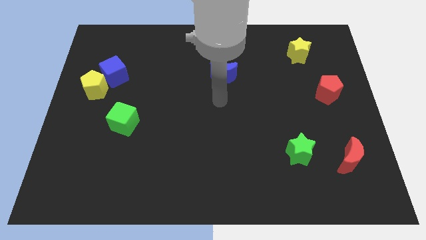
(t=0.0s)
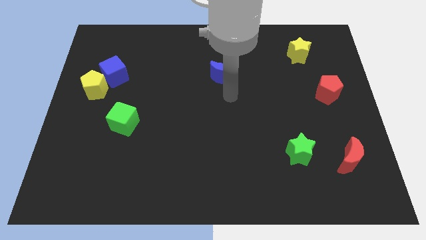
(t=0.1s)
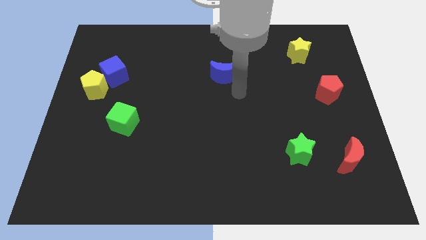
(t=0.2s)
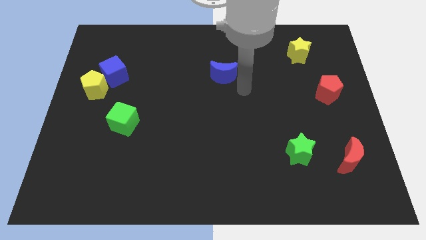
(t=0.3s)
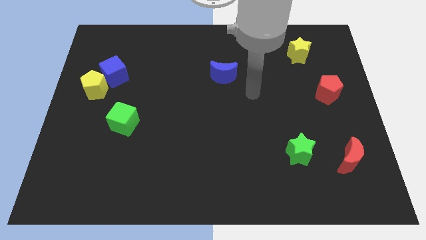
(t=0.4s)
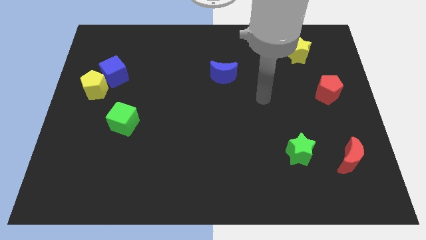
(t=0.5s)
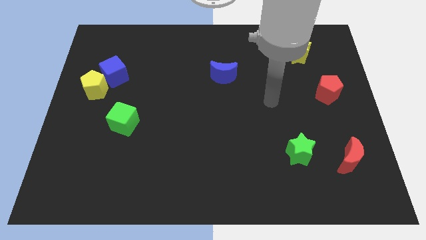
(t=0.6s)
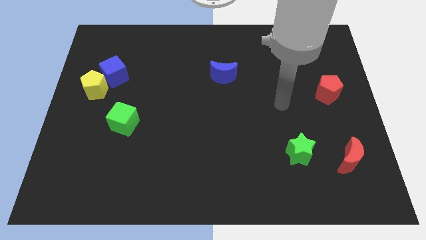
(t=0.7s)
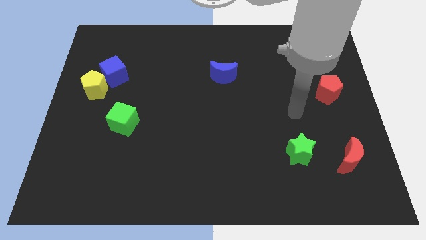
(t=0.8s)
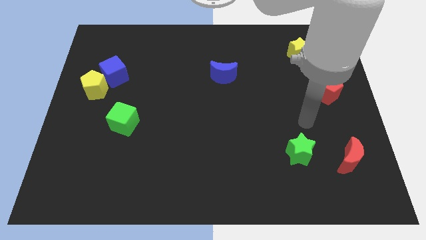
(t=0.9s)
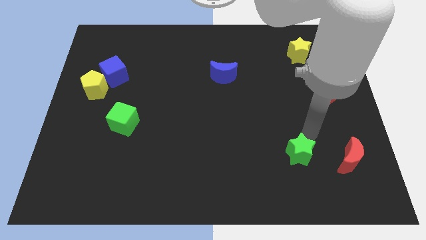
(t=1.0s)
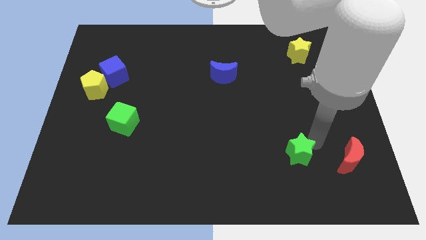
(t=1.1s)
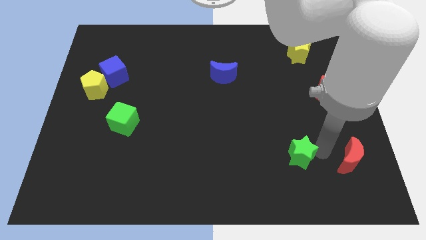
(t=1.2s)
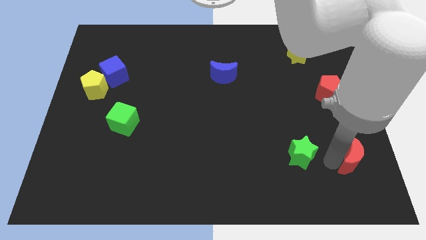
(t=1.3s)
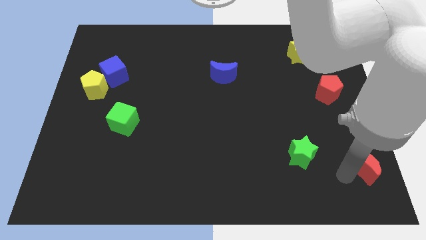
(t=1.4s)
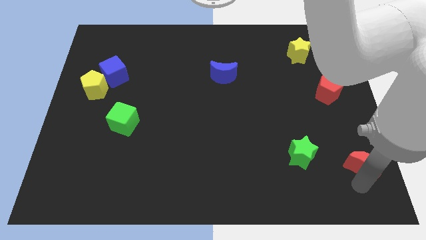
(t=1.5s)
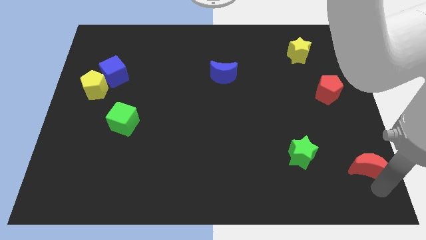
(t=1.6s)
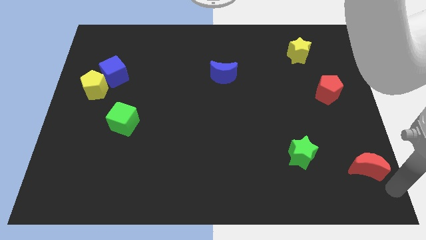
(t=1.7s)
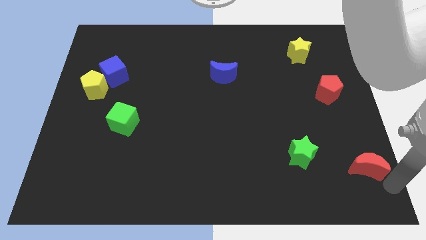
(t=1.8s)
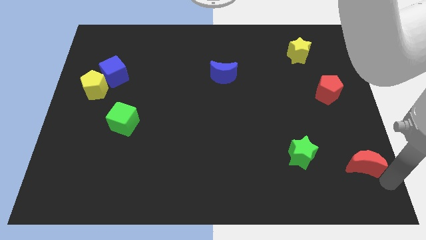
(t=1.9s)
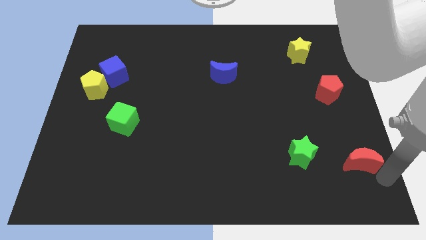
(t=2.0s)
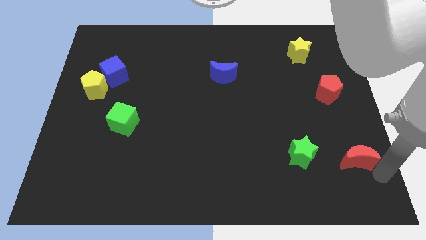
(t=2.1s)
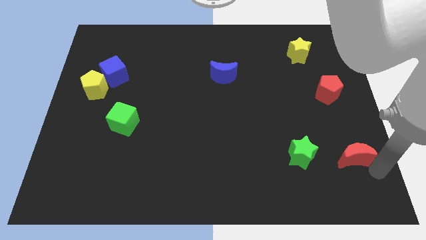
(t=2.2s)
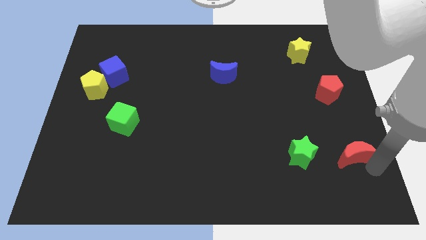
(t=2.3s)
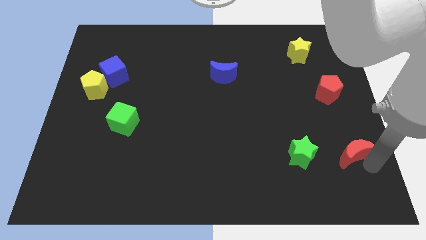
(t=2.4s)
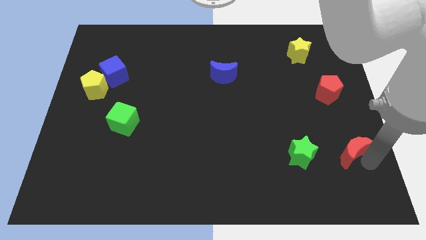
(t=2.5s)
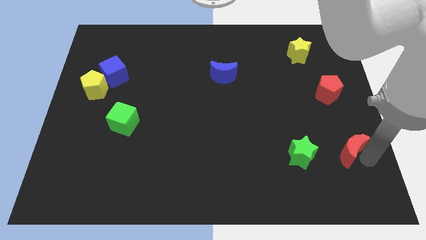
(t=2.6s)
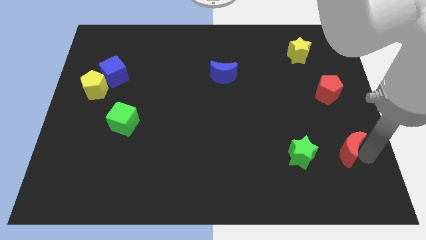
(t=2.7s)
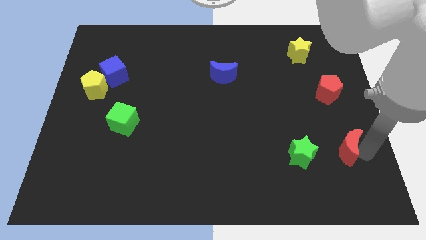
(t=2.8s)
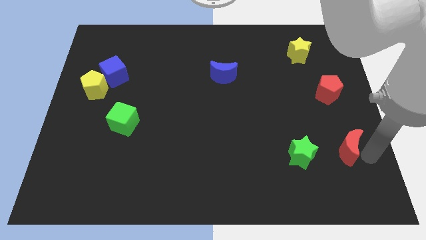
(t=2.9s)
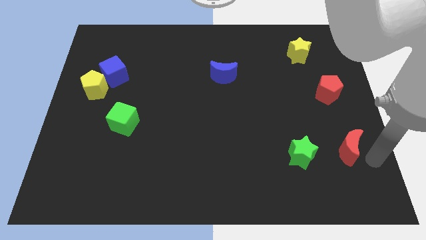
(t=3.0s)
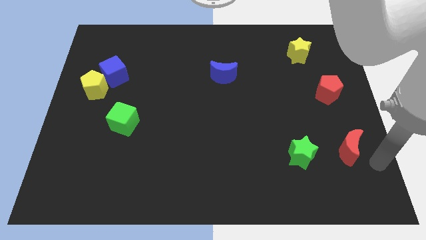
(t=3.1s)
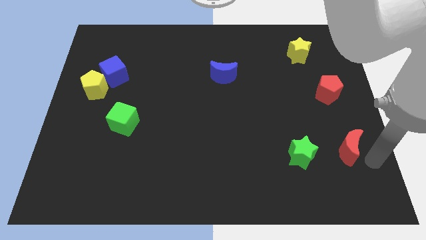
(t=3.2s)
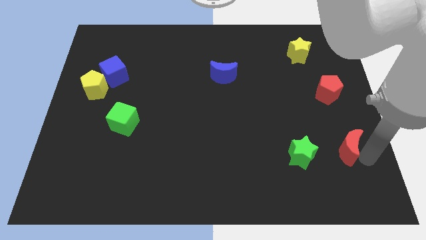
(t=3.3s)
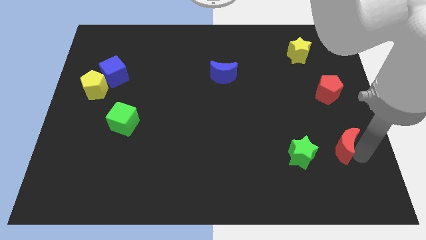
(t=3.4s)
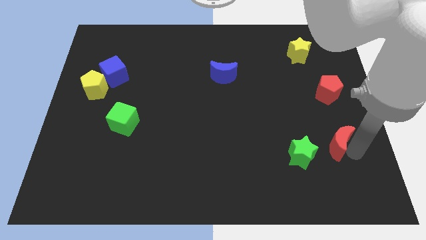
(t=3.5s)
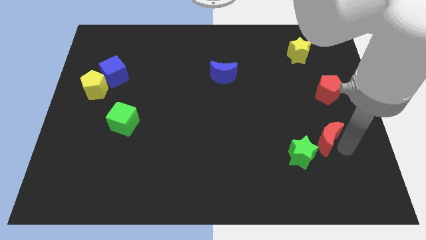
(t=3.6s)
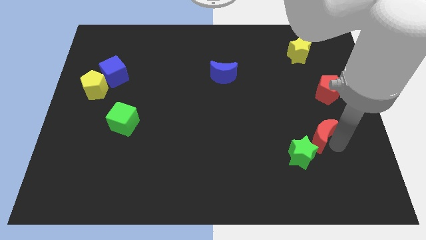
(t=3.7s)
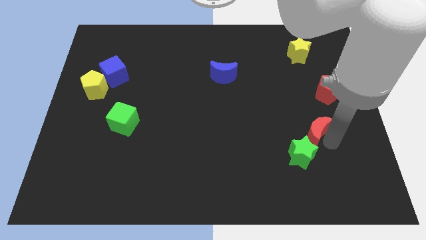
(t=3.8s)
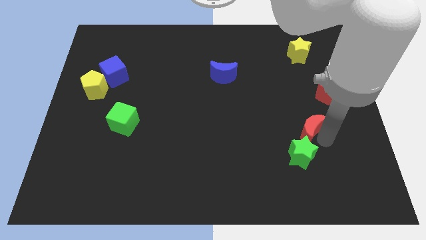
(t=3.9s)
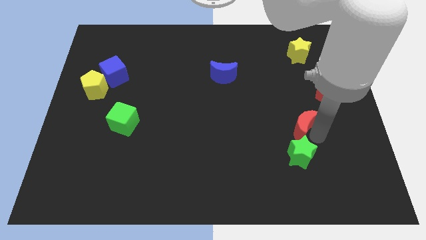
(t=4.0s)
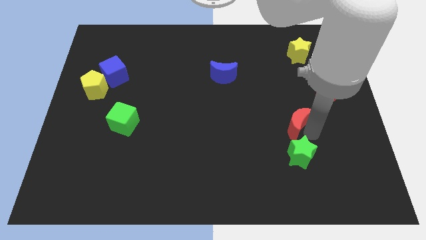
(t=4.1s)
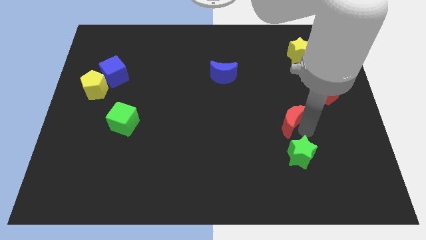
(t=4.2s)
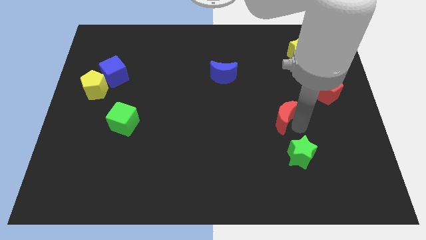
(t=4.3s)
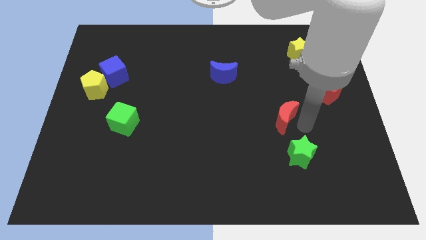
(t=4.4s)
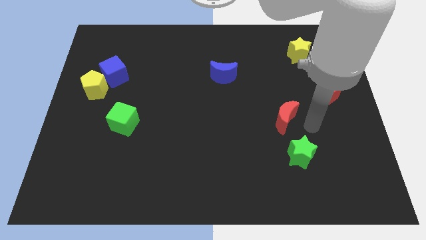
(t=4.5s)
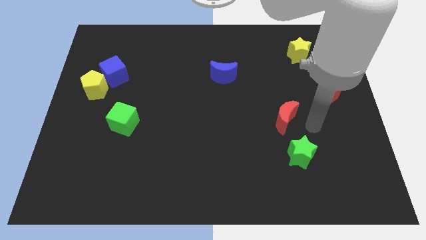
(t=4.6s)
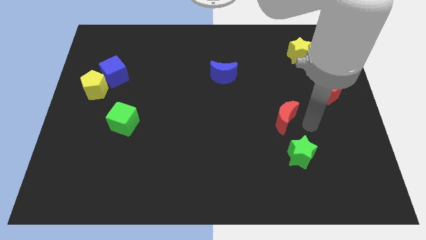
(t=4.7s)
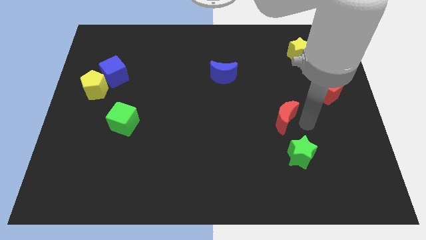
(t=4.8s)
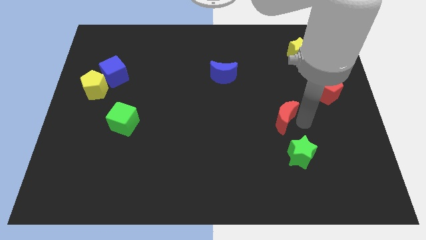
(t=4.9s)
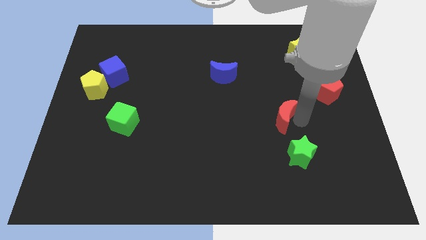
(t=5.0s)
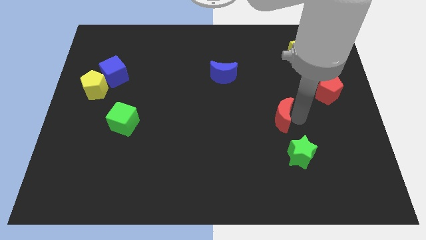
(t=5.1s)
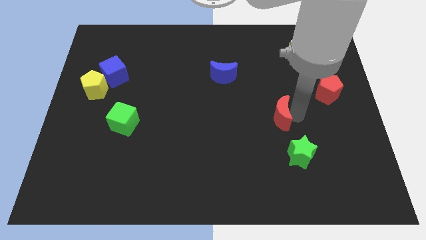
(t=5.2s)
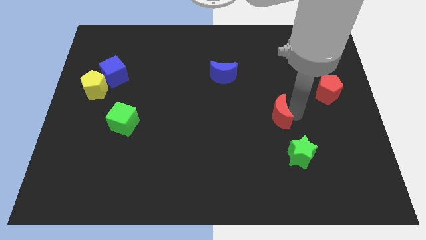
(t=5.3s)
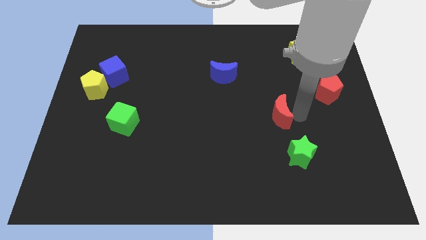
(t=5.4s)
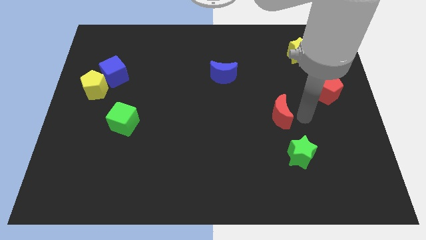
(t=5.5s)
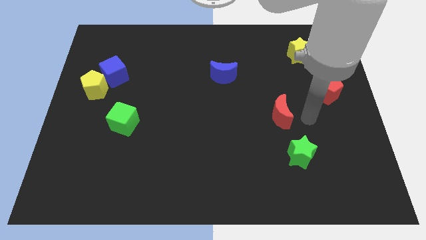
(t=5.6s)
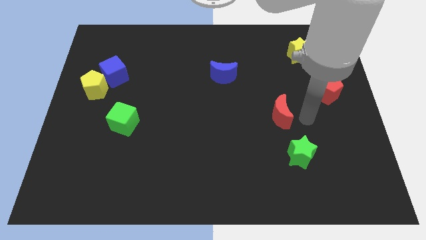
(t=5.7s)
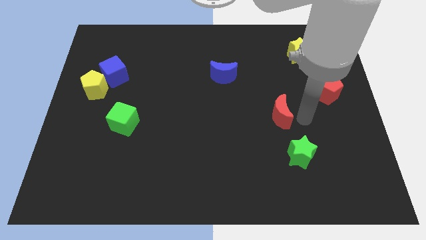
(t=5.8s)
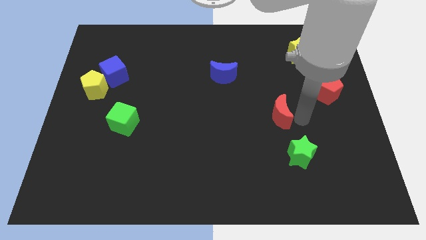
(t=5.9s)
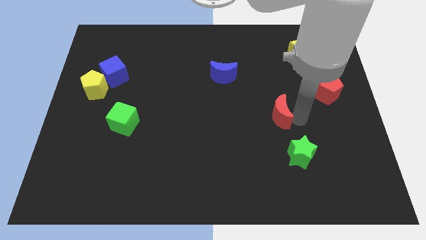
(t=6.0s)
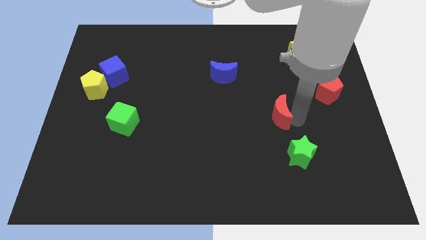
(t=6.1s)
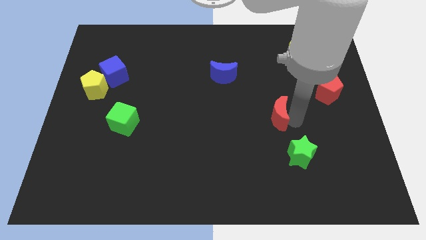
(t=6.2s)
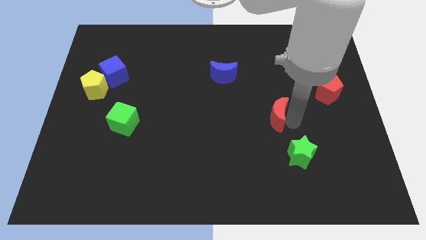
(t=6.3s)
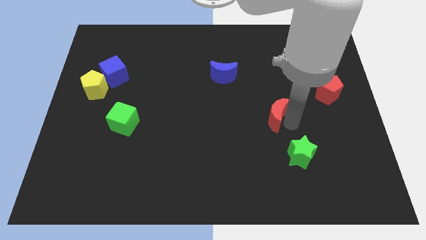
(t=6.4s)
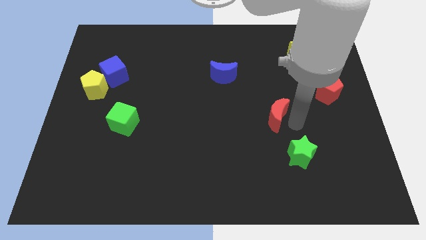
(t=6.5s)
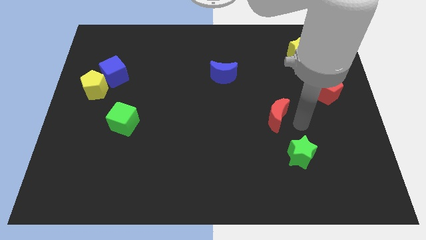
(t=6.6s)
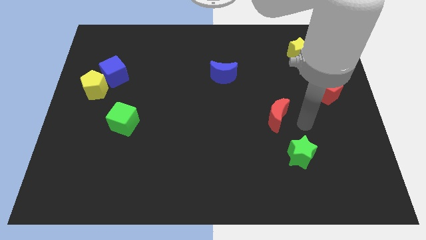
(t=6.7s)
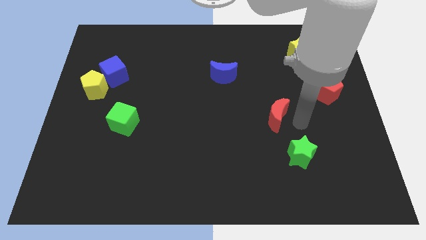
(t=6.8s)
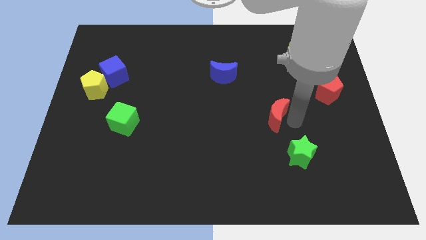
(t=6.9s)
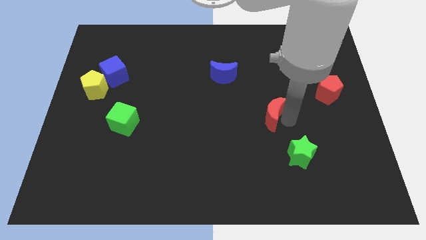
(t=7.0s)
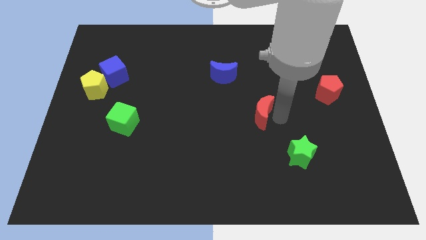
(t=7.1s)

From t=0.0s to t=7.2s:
put the red moon to the middle
